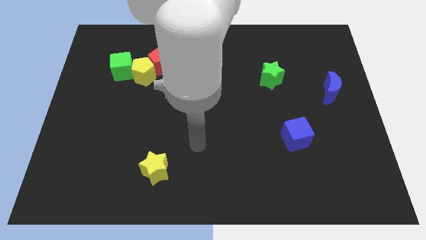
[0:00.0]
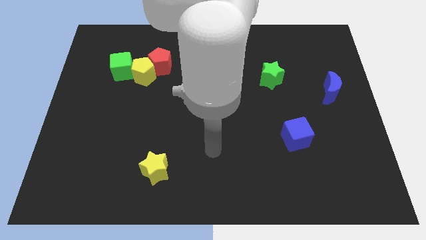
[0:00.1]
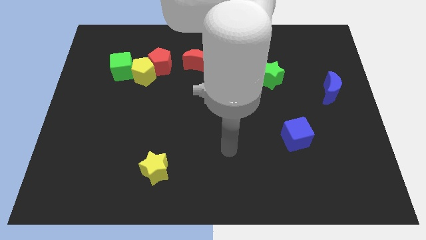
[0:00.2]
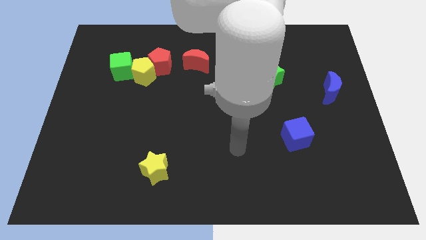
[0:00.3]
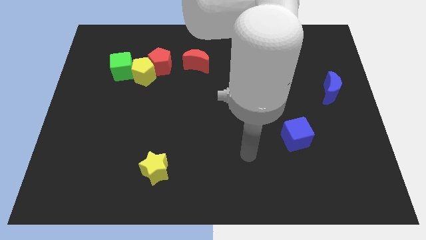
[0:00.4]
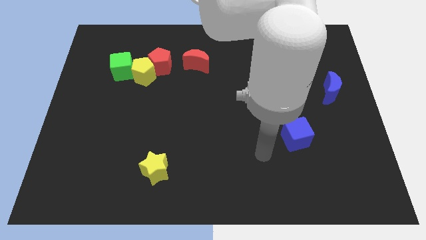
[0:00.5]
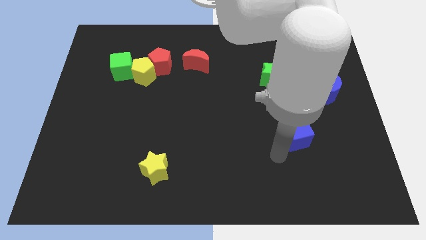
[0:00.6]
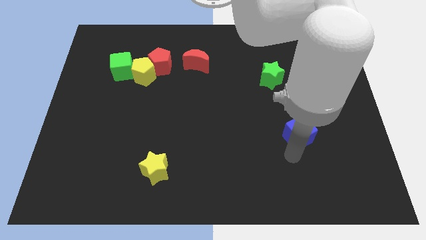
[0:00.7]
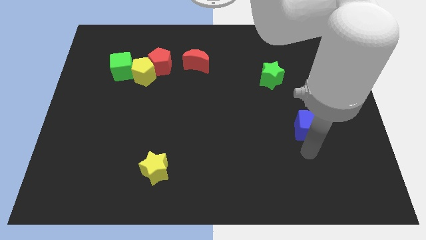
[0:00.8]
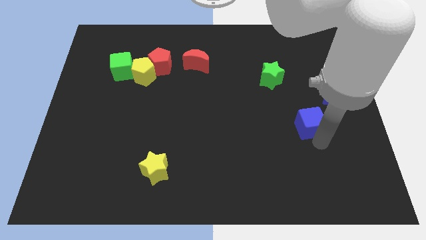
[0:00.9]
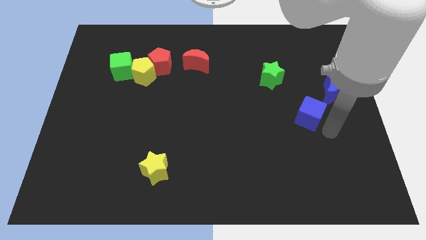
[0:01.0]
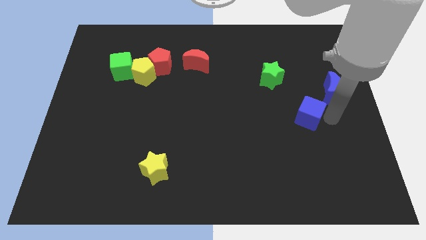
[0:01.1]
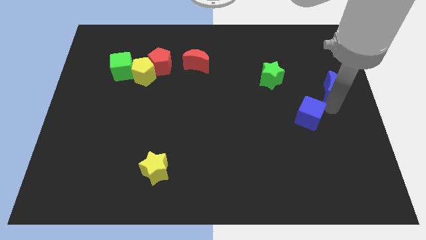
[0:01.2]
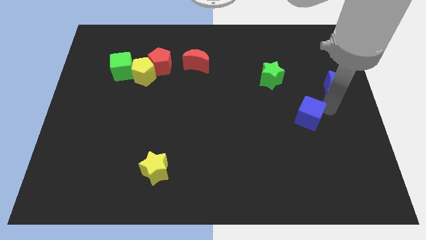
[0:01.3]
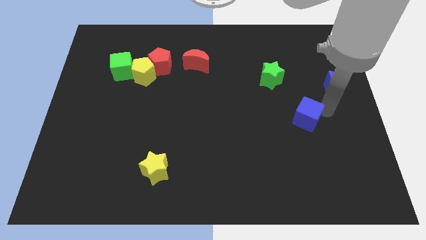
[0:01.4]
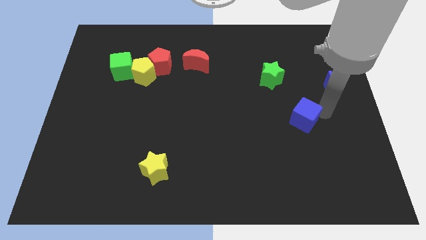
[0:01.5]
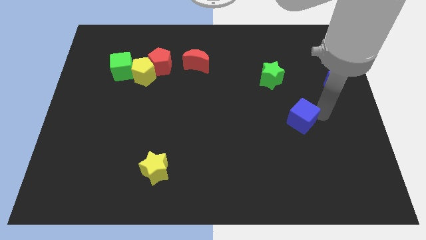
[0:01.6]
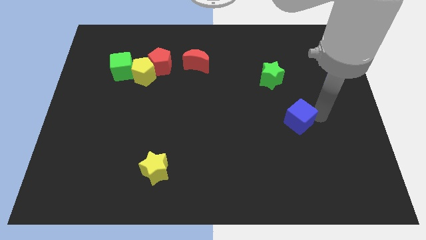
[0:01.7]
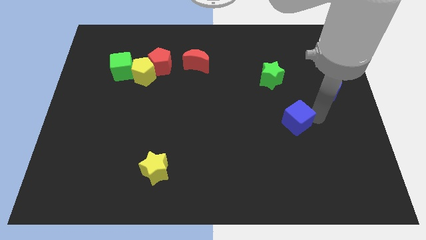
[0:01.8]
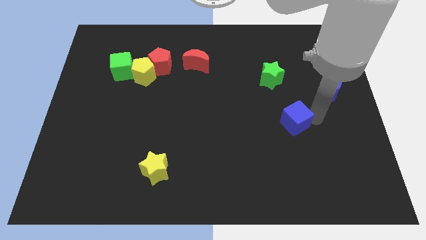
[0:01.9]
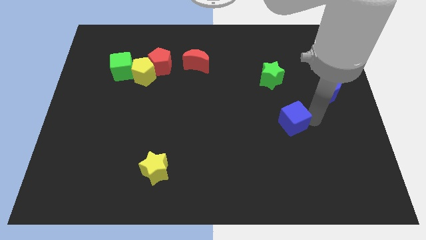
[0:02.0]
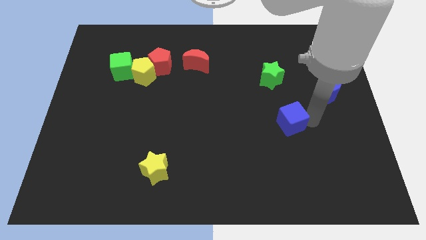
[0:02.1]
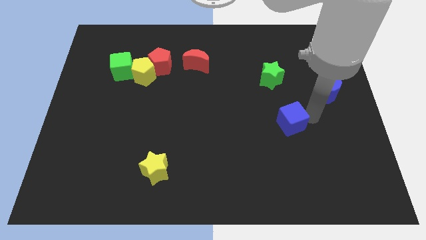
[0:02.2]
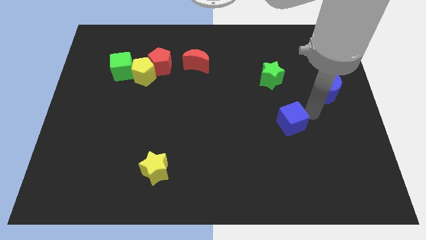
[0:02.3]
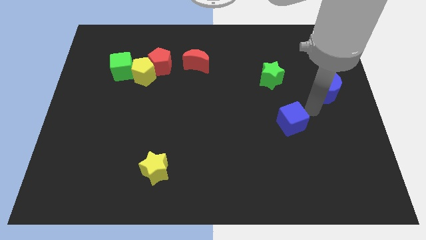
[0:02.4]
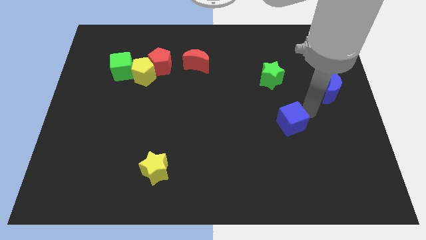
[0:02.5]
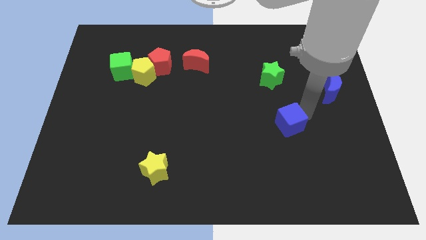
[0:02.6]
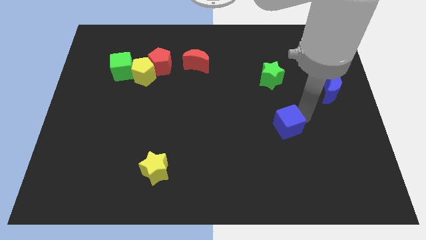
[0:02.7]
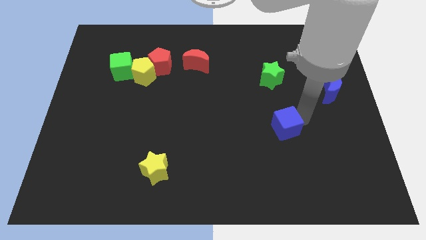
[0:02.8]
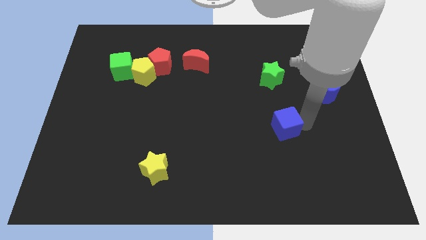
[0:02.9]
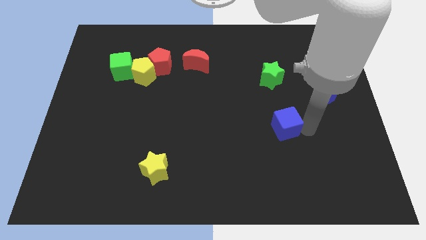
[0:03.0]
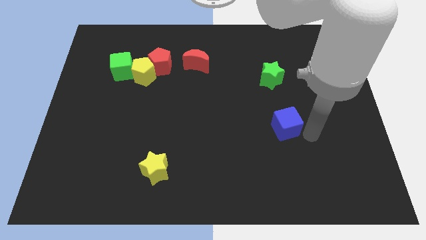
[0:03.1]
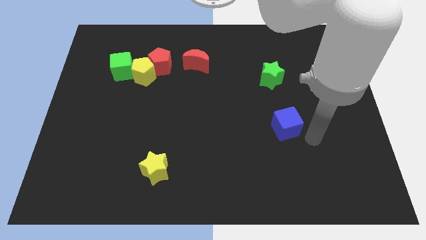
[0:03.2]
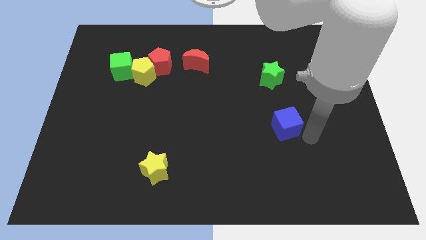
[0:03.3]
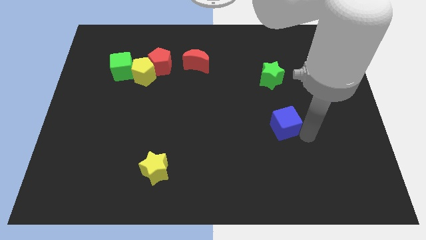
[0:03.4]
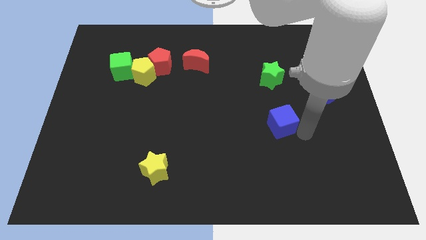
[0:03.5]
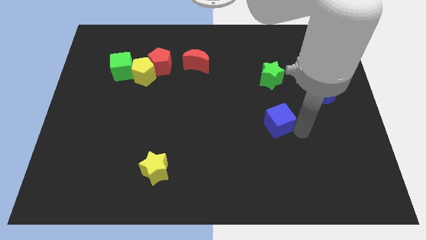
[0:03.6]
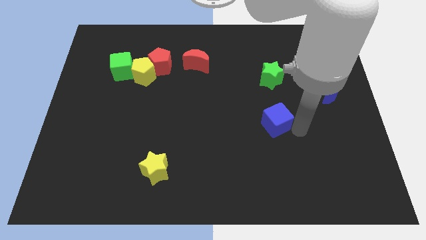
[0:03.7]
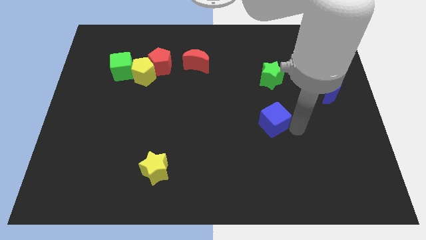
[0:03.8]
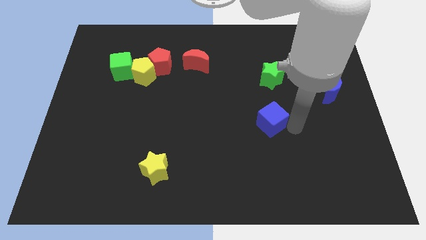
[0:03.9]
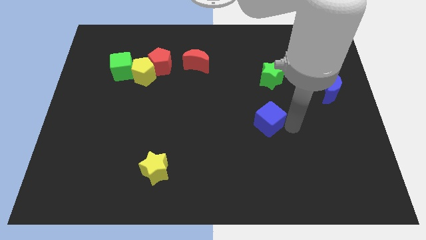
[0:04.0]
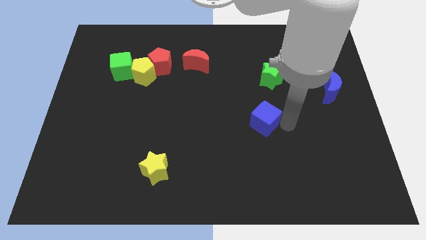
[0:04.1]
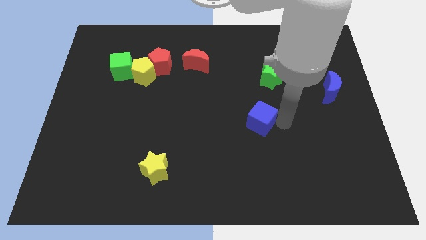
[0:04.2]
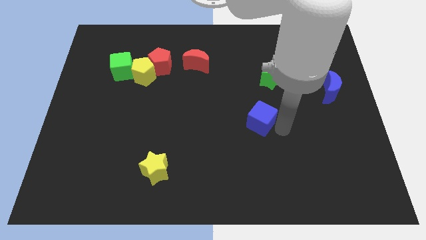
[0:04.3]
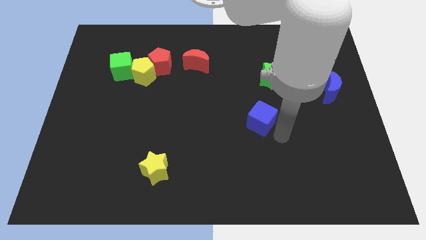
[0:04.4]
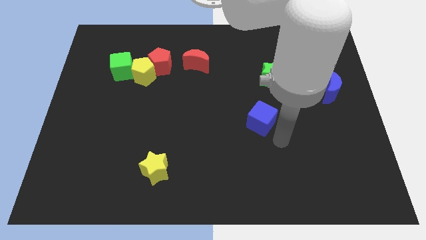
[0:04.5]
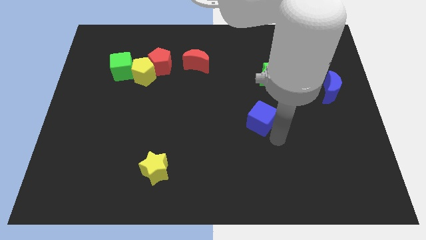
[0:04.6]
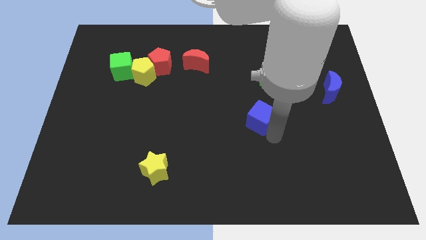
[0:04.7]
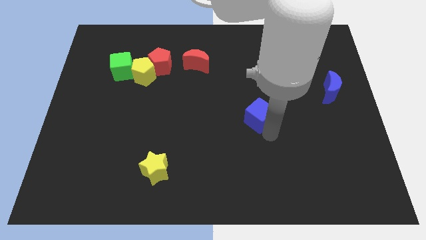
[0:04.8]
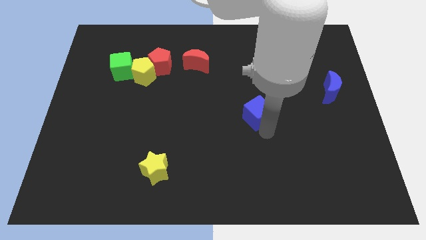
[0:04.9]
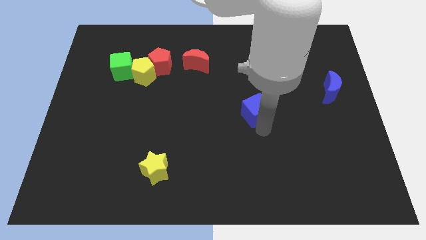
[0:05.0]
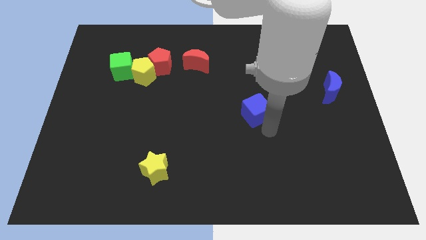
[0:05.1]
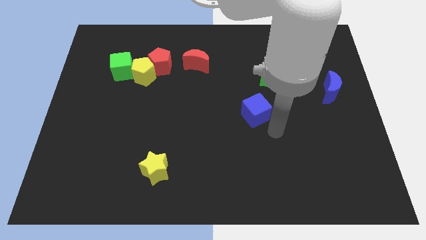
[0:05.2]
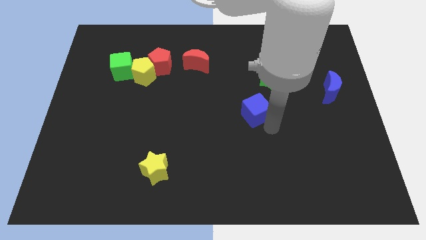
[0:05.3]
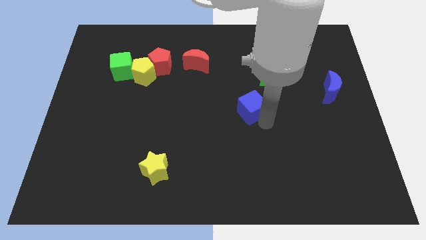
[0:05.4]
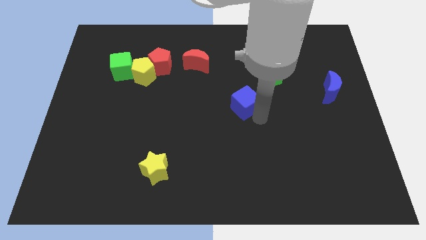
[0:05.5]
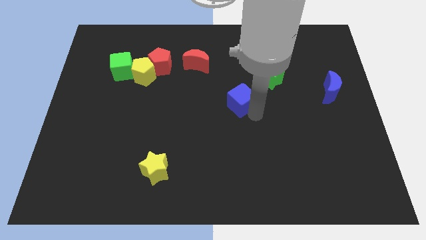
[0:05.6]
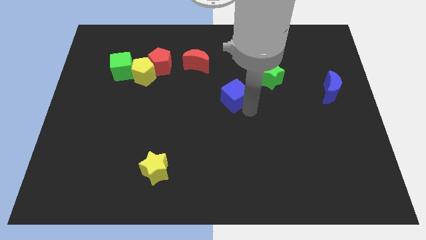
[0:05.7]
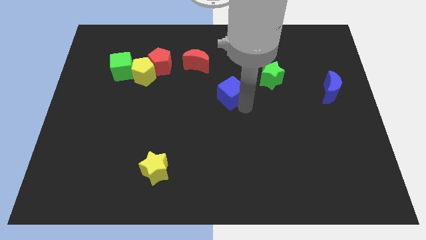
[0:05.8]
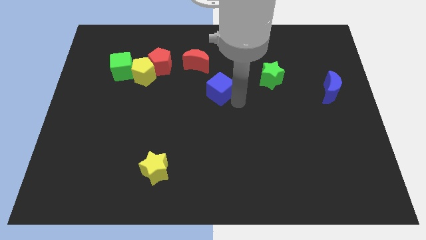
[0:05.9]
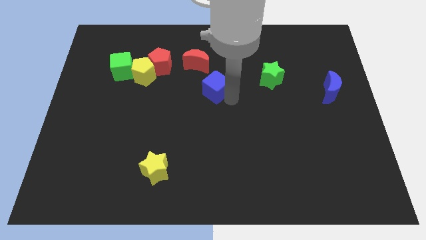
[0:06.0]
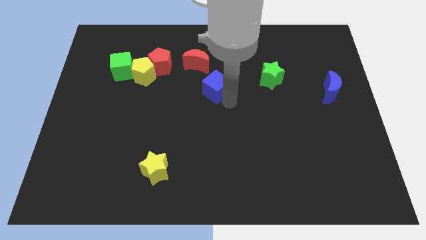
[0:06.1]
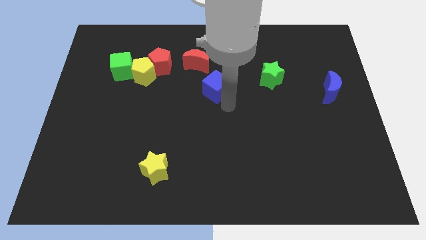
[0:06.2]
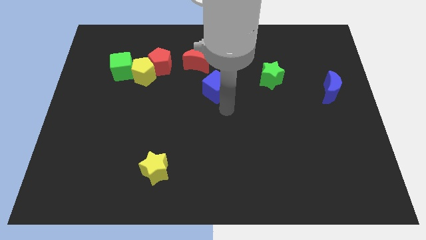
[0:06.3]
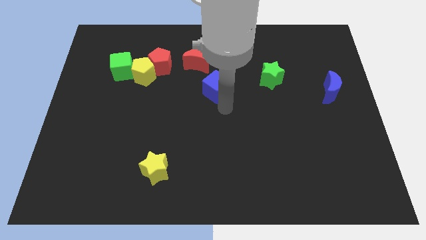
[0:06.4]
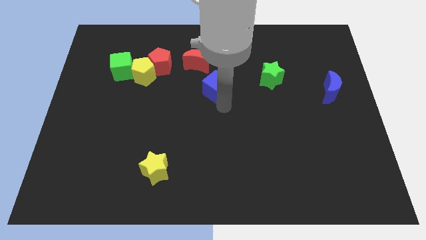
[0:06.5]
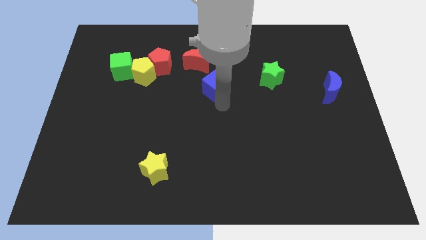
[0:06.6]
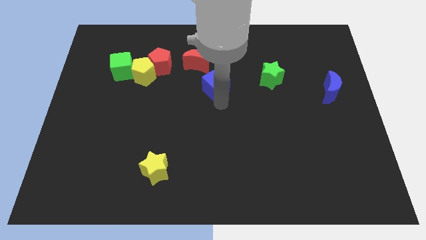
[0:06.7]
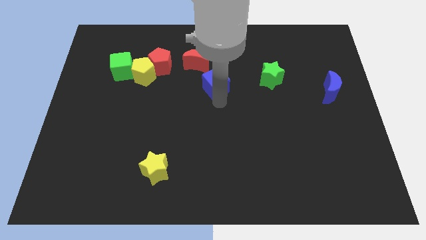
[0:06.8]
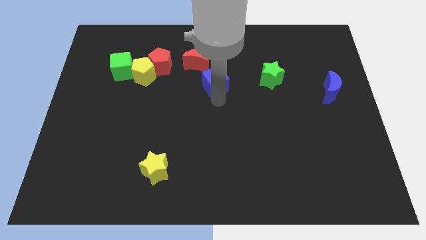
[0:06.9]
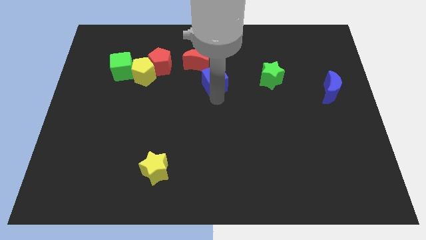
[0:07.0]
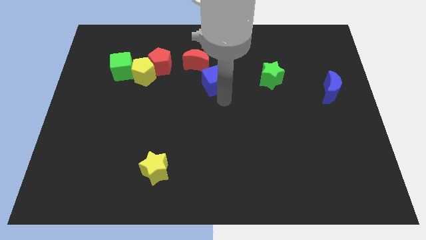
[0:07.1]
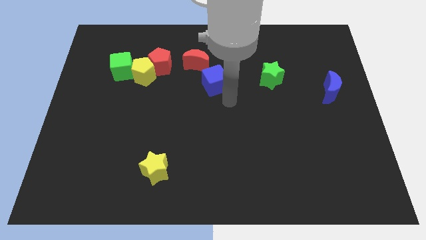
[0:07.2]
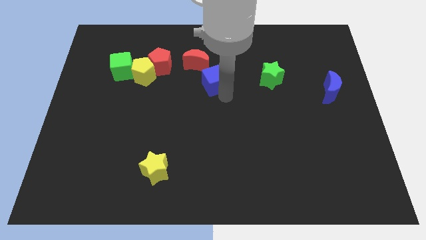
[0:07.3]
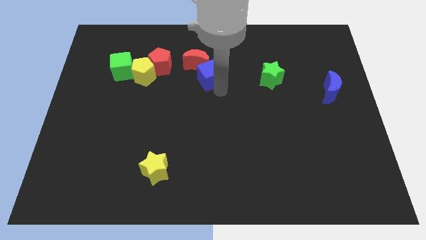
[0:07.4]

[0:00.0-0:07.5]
slide the blue cube close to the red moon
